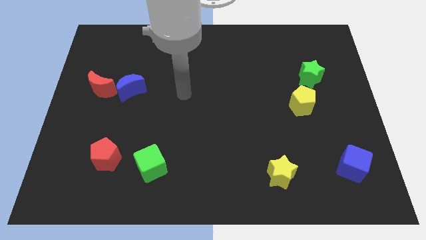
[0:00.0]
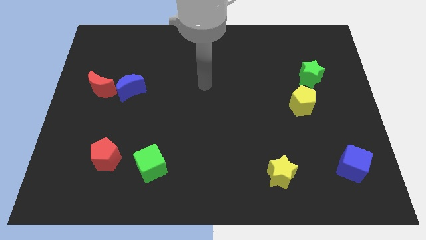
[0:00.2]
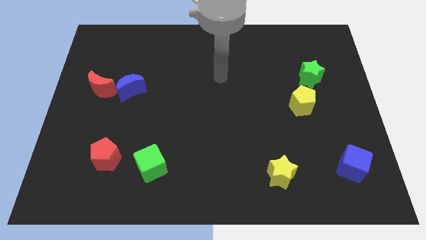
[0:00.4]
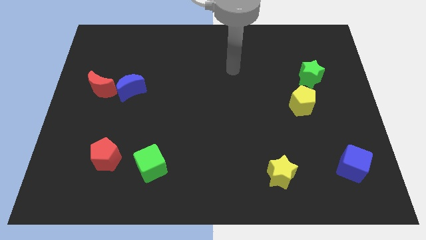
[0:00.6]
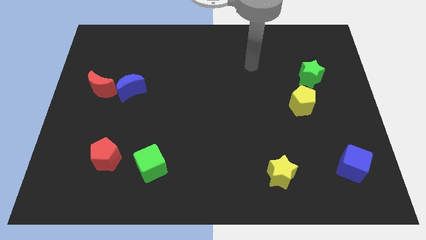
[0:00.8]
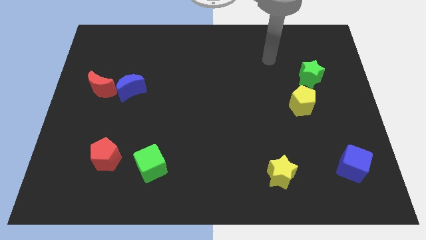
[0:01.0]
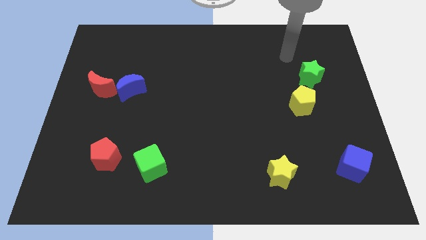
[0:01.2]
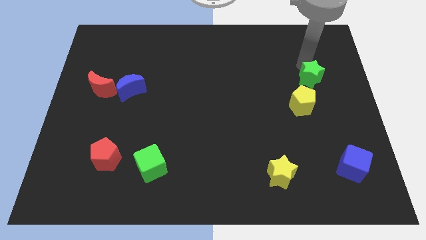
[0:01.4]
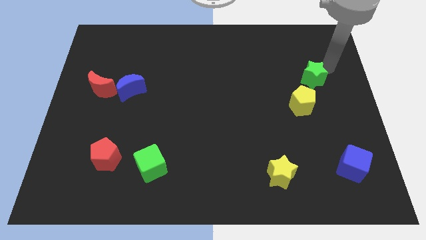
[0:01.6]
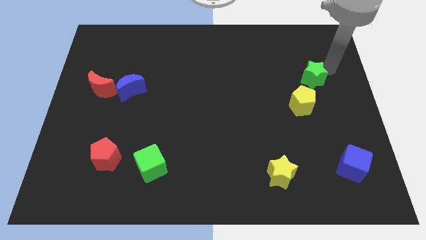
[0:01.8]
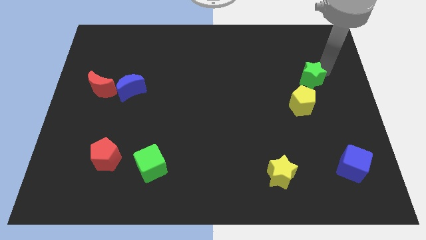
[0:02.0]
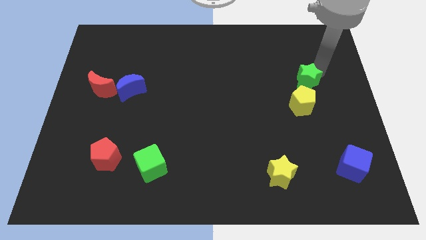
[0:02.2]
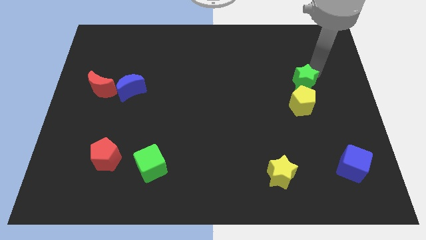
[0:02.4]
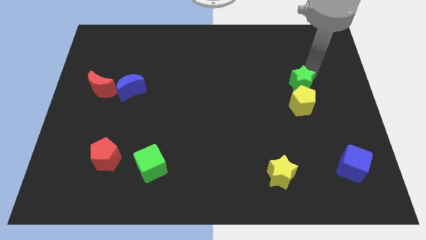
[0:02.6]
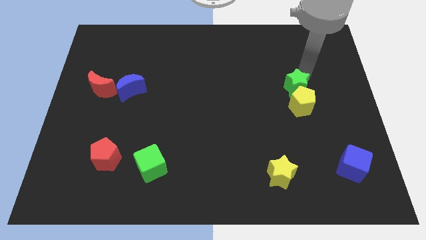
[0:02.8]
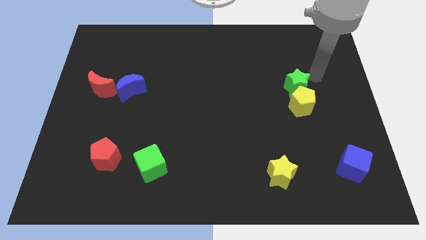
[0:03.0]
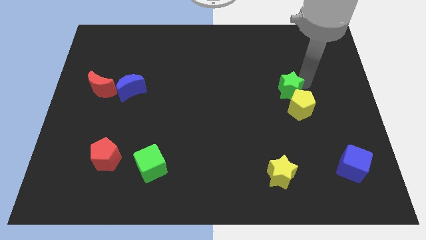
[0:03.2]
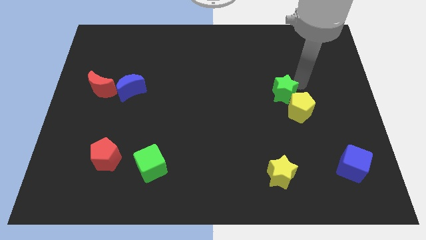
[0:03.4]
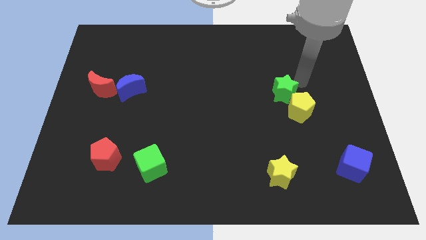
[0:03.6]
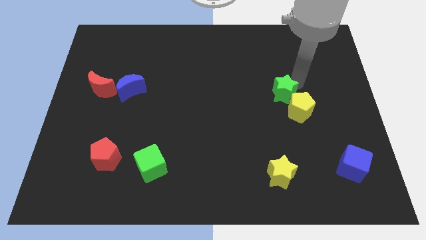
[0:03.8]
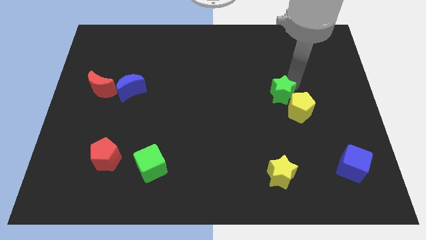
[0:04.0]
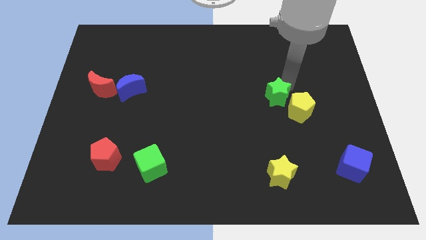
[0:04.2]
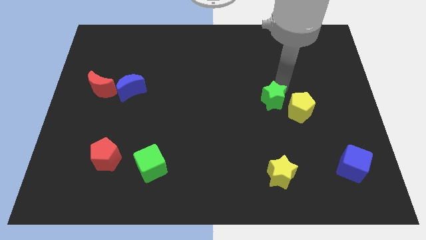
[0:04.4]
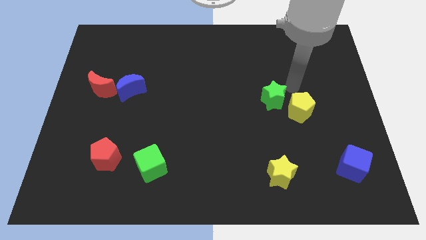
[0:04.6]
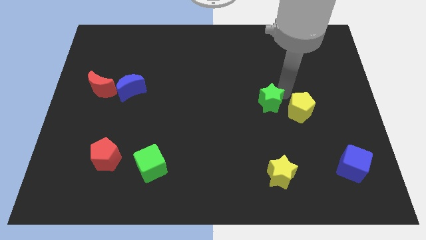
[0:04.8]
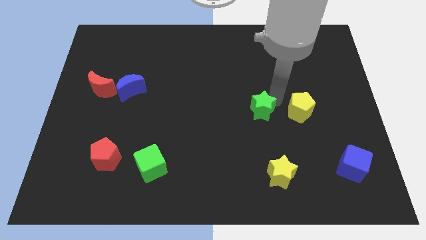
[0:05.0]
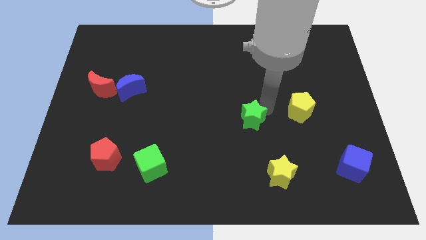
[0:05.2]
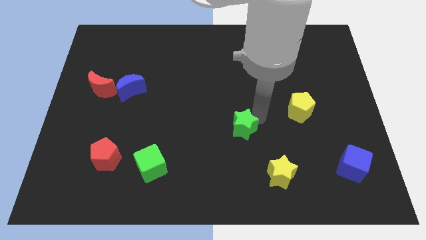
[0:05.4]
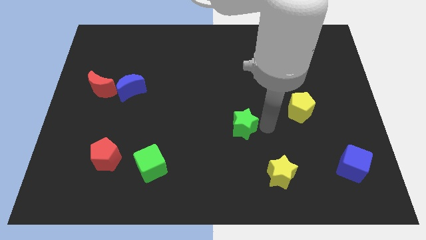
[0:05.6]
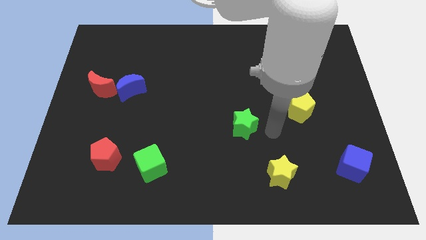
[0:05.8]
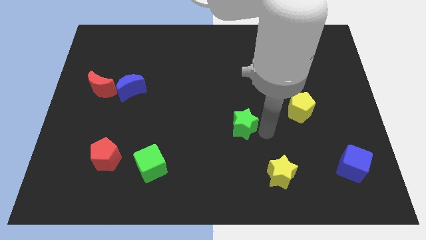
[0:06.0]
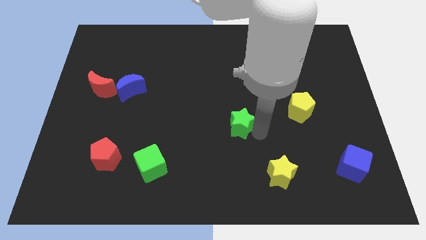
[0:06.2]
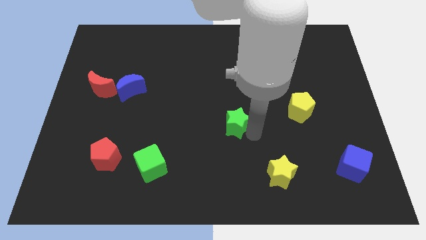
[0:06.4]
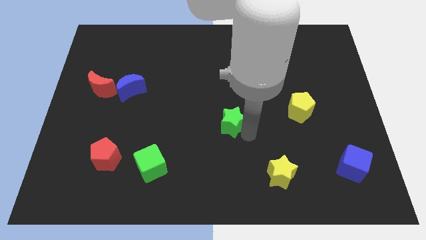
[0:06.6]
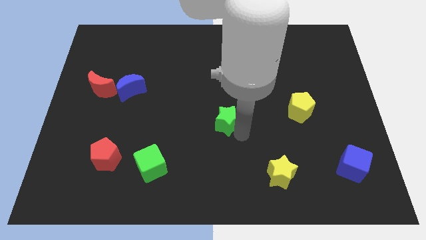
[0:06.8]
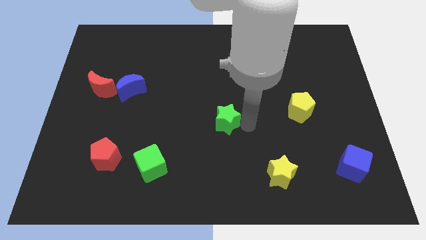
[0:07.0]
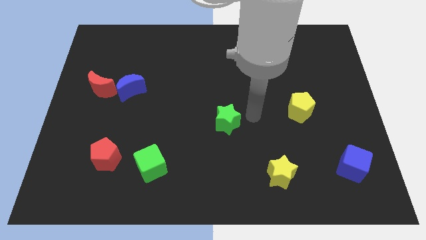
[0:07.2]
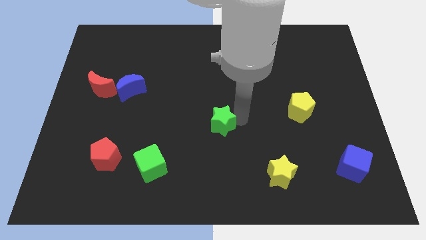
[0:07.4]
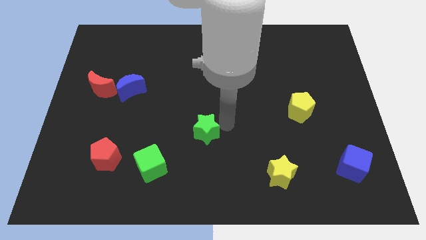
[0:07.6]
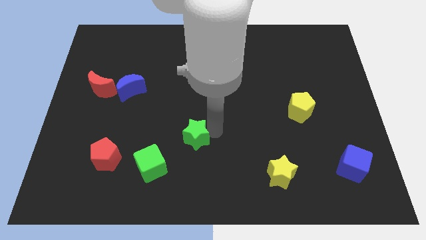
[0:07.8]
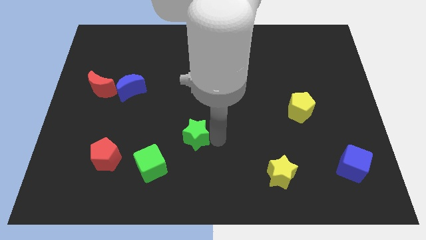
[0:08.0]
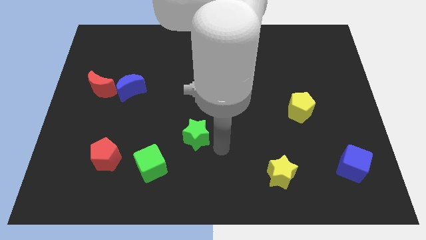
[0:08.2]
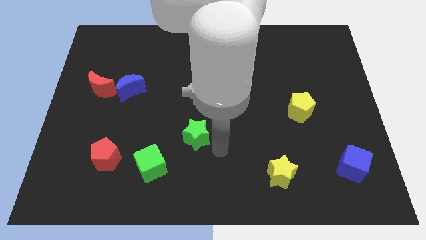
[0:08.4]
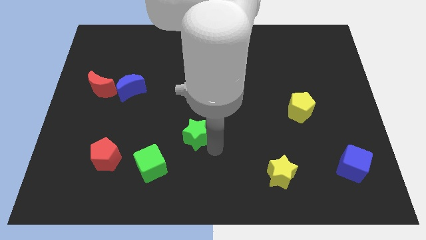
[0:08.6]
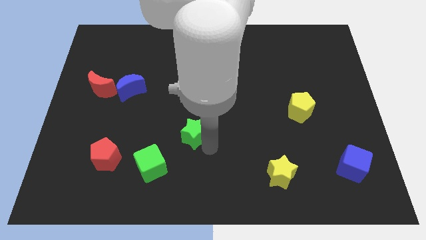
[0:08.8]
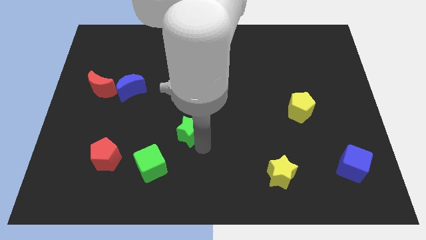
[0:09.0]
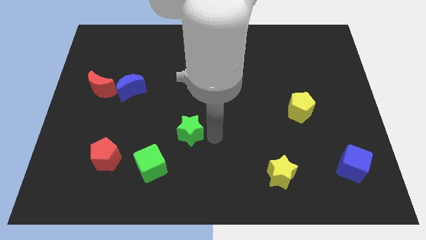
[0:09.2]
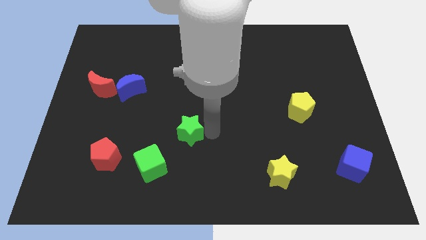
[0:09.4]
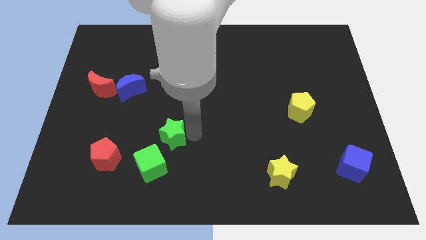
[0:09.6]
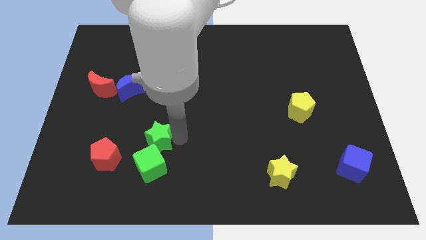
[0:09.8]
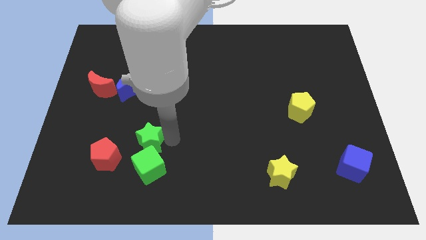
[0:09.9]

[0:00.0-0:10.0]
move the green star to the top left of the green cube

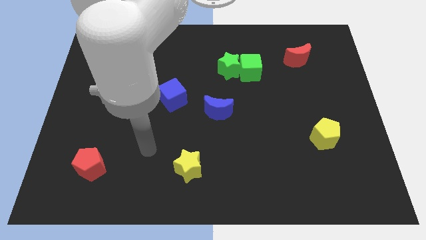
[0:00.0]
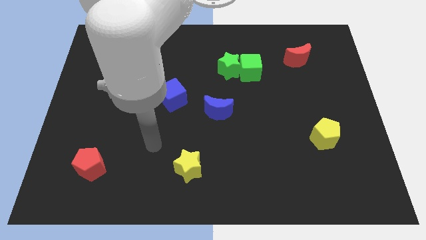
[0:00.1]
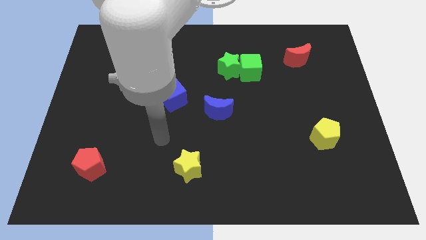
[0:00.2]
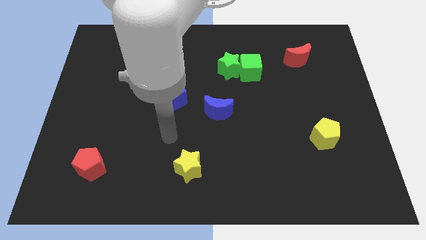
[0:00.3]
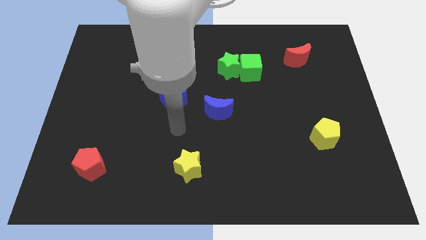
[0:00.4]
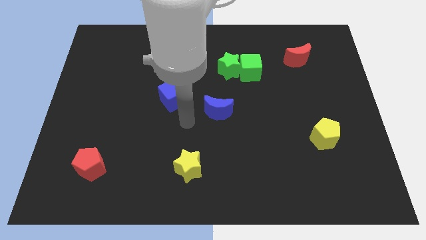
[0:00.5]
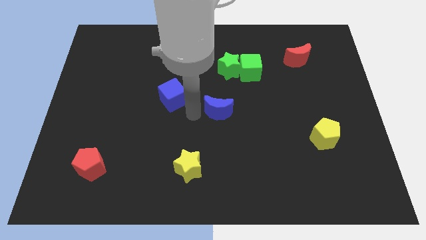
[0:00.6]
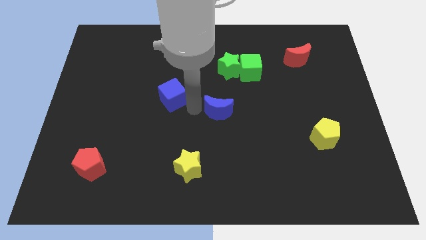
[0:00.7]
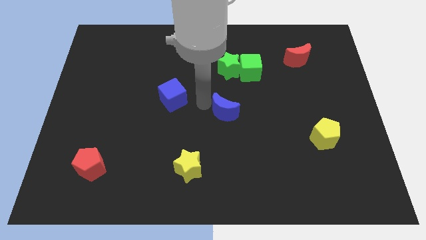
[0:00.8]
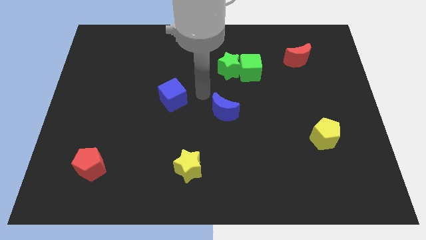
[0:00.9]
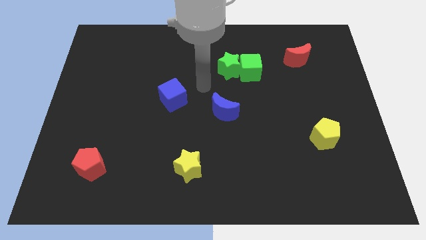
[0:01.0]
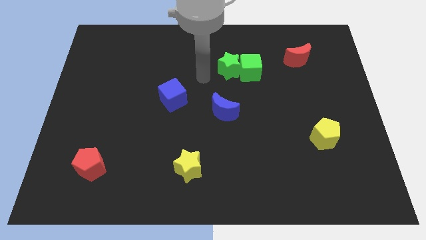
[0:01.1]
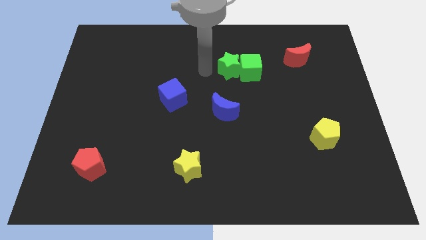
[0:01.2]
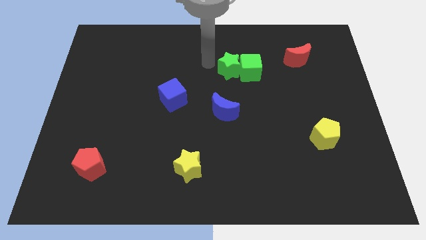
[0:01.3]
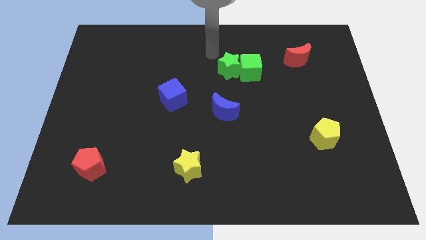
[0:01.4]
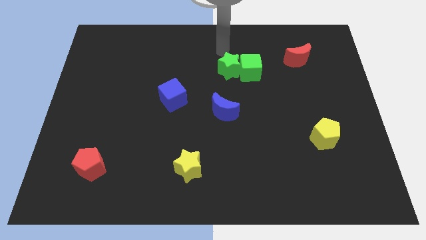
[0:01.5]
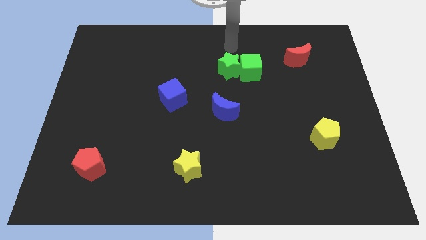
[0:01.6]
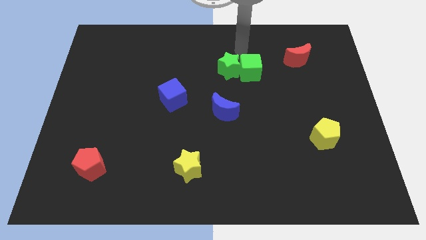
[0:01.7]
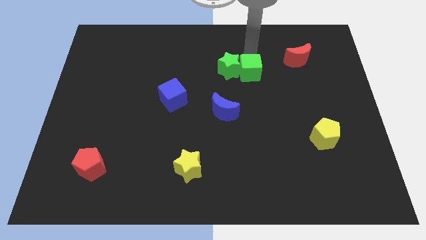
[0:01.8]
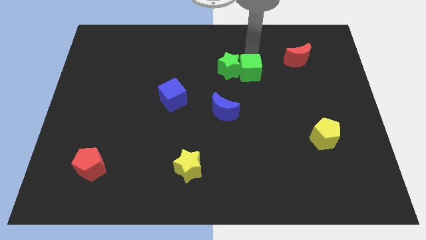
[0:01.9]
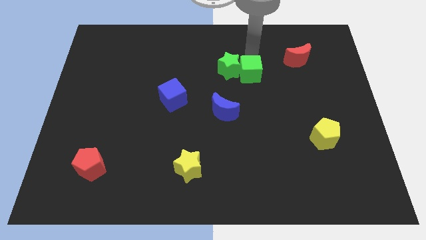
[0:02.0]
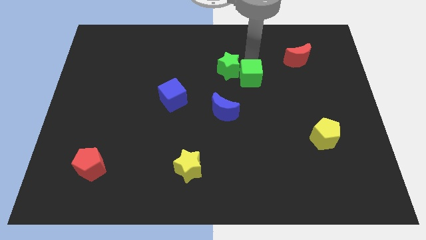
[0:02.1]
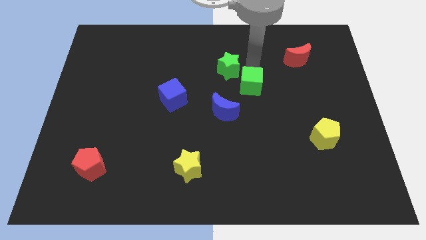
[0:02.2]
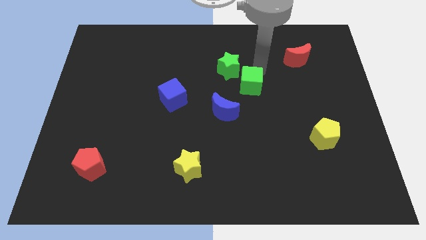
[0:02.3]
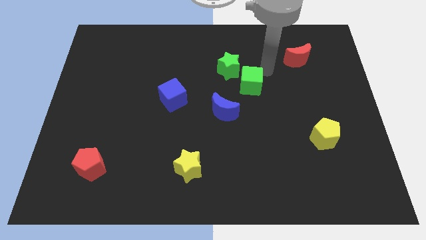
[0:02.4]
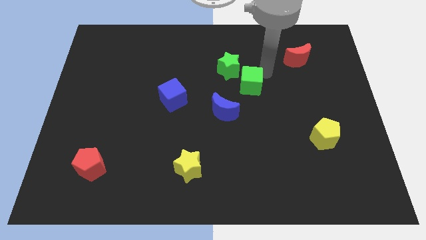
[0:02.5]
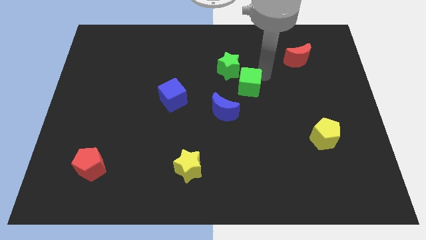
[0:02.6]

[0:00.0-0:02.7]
push the green cube below the green star
